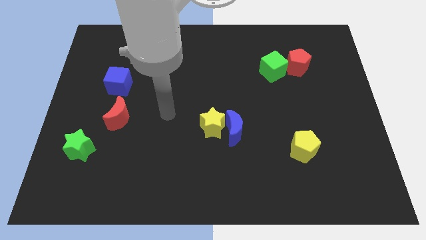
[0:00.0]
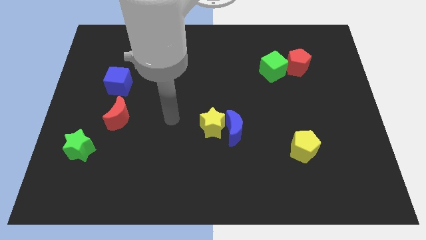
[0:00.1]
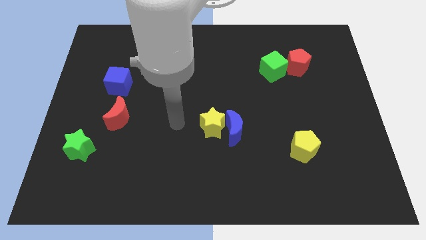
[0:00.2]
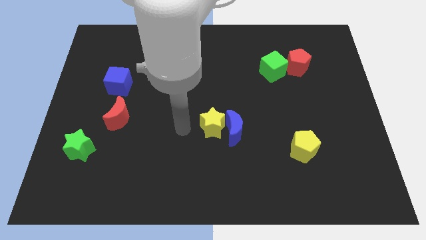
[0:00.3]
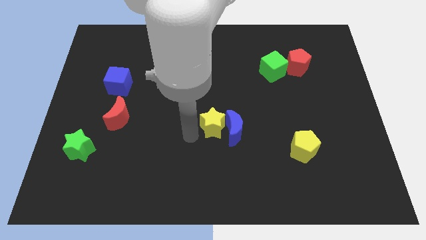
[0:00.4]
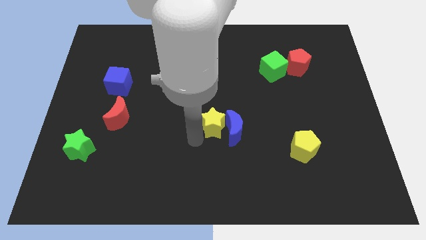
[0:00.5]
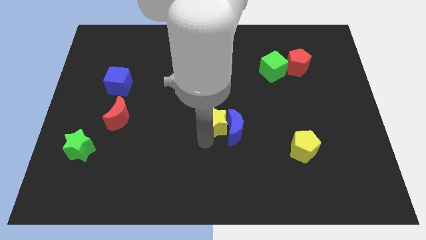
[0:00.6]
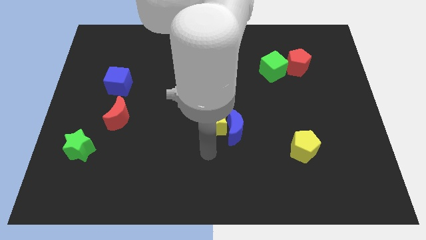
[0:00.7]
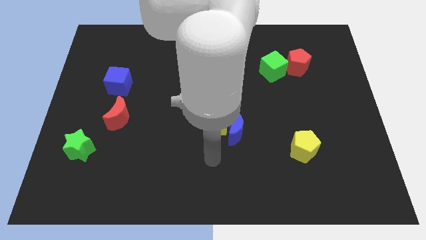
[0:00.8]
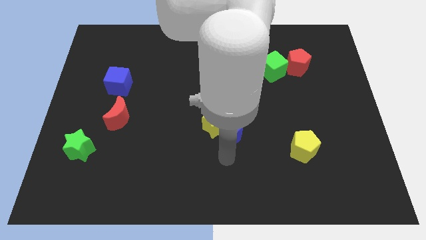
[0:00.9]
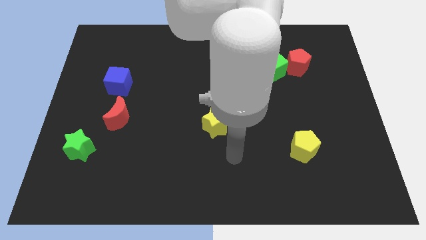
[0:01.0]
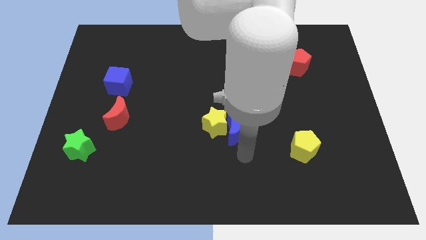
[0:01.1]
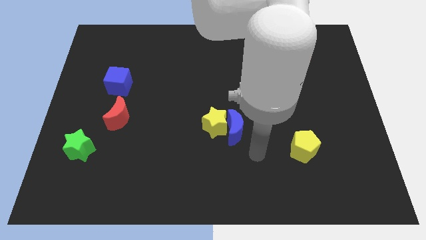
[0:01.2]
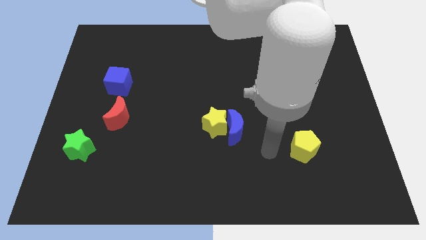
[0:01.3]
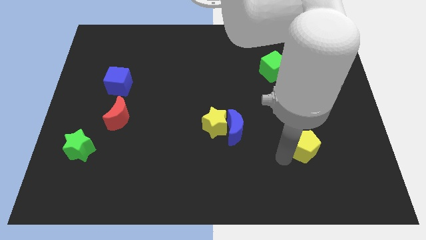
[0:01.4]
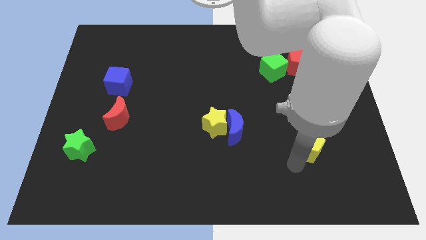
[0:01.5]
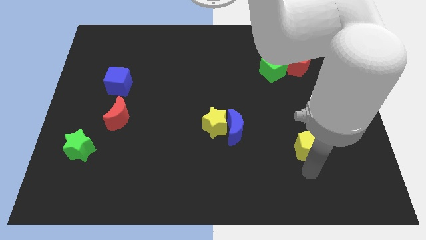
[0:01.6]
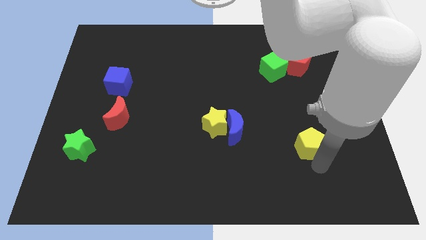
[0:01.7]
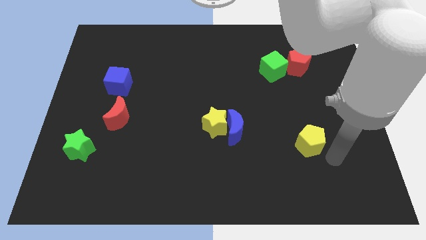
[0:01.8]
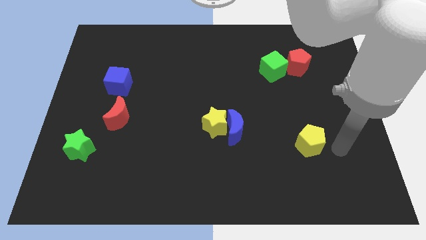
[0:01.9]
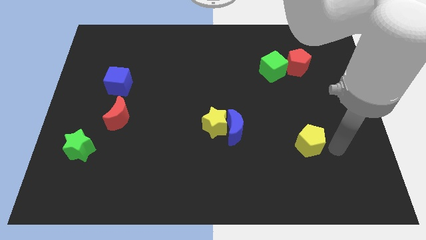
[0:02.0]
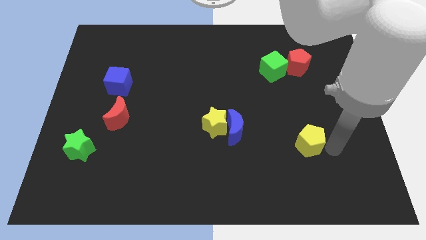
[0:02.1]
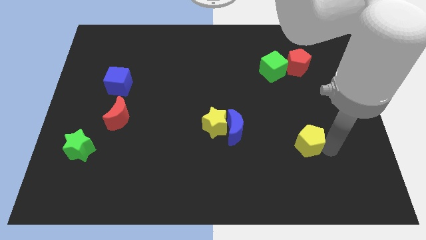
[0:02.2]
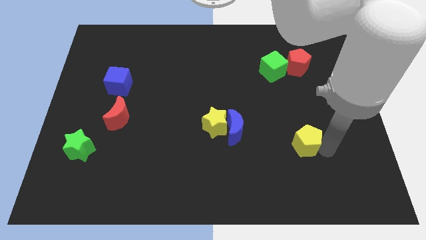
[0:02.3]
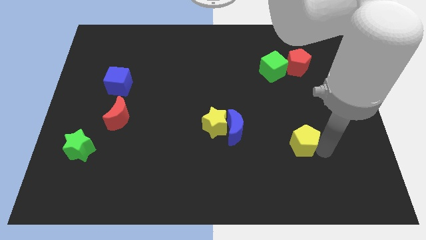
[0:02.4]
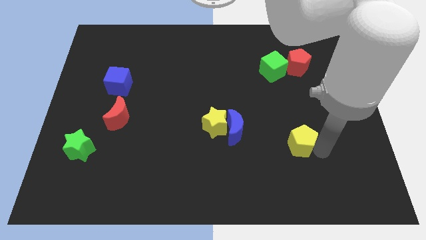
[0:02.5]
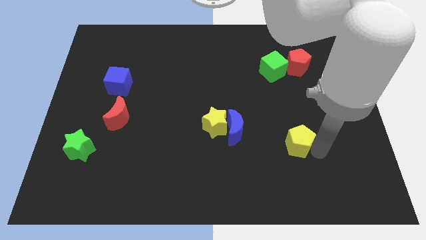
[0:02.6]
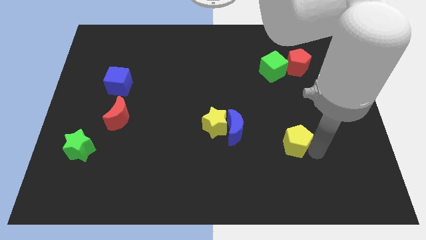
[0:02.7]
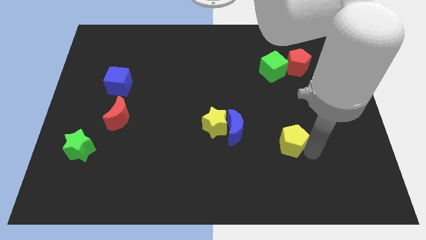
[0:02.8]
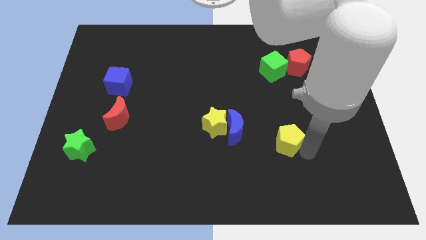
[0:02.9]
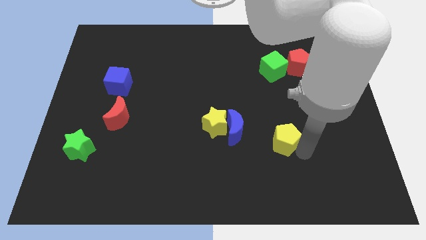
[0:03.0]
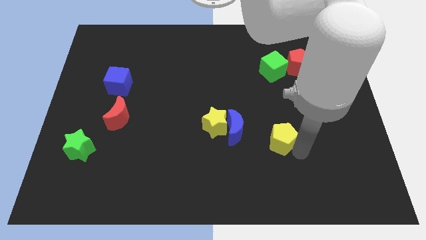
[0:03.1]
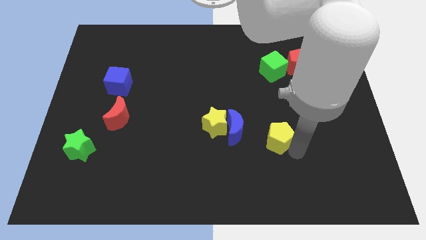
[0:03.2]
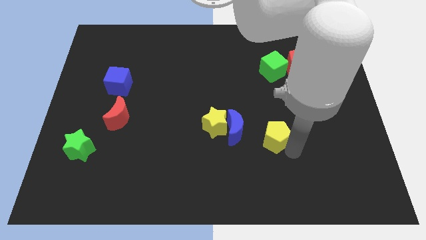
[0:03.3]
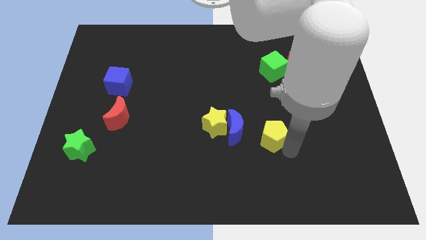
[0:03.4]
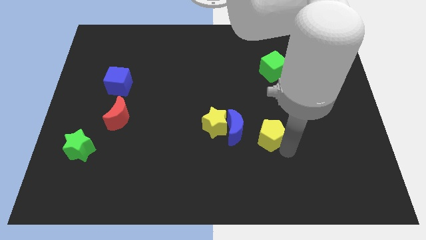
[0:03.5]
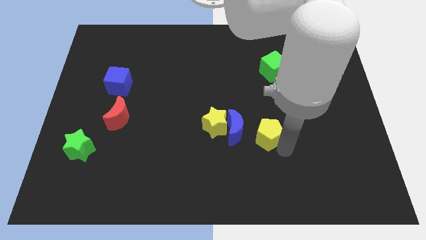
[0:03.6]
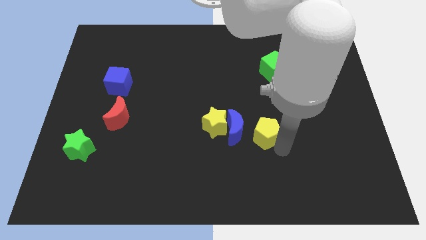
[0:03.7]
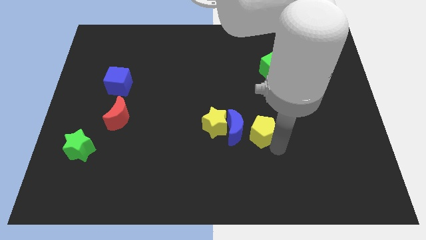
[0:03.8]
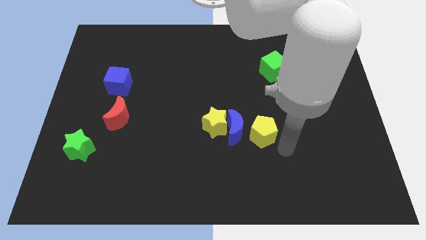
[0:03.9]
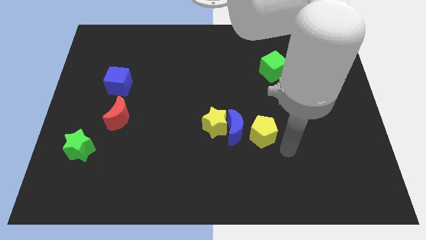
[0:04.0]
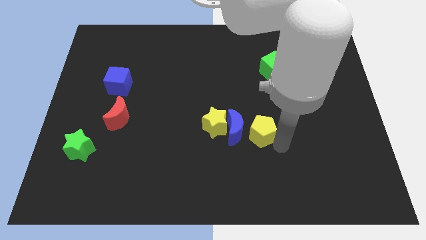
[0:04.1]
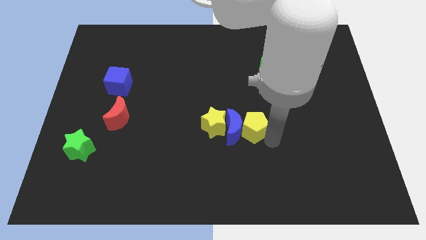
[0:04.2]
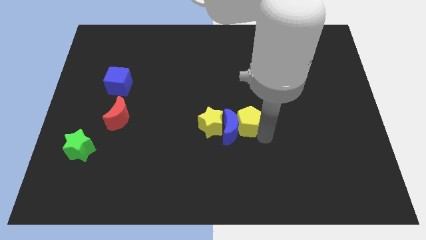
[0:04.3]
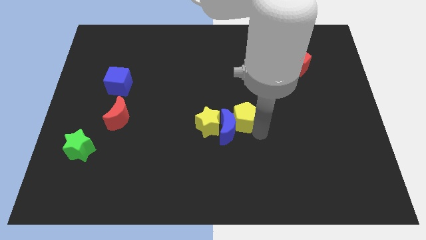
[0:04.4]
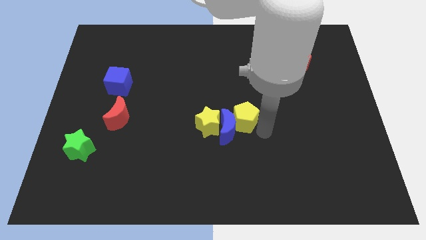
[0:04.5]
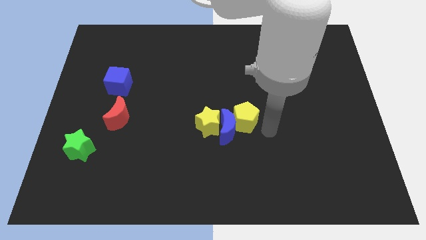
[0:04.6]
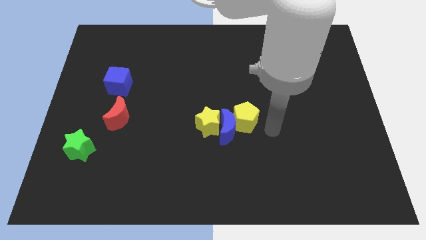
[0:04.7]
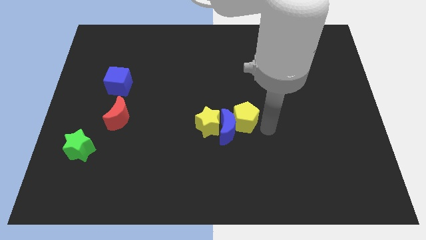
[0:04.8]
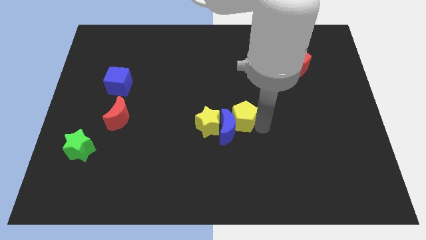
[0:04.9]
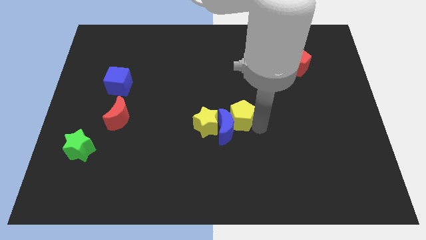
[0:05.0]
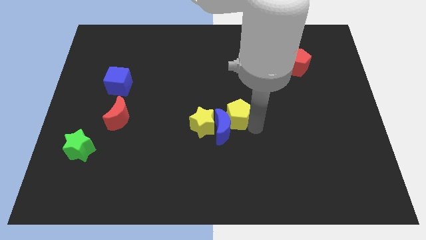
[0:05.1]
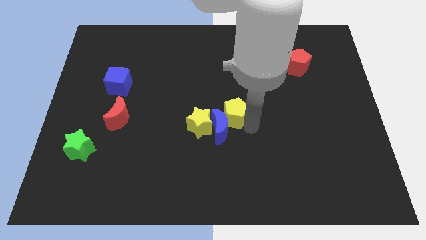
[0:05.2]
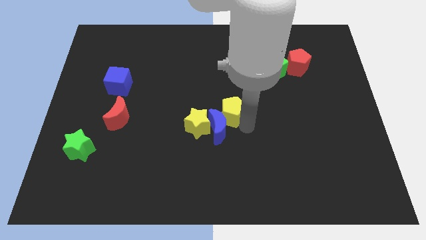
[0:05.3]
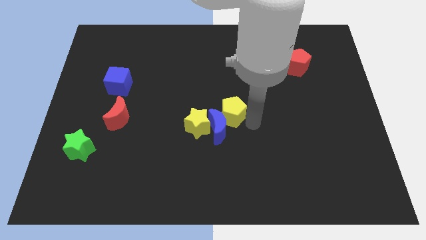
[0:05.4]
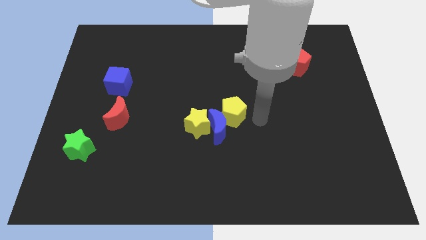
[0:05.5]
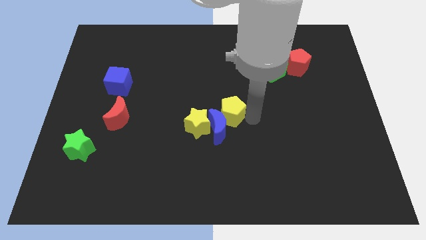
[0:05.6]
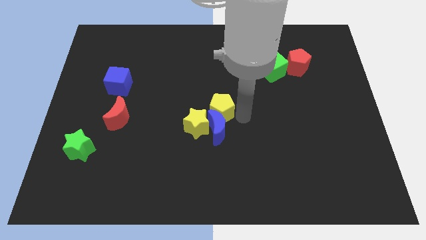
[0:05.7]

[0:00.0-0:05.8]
push the yellow pentagon diagonally up and to the left of the blue moon
